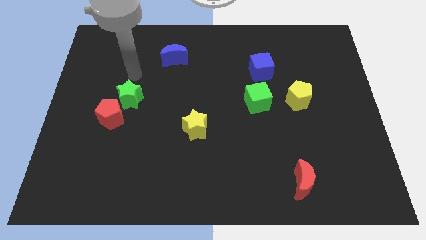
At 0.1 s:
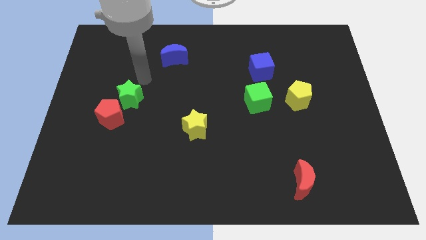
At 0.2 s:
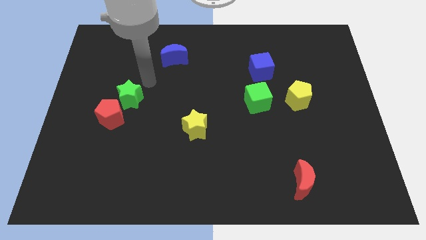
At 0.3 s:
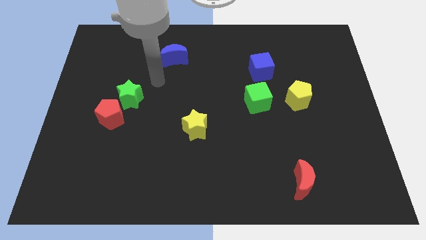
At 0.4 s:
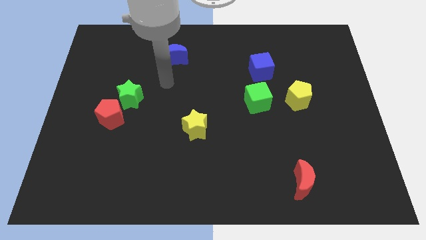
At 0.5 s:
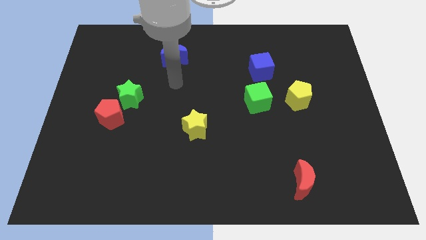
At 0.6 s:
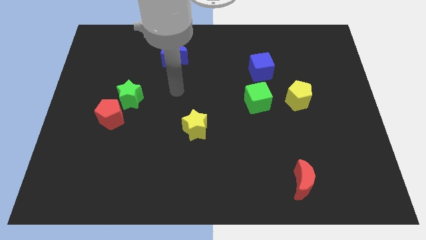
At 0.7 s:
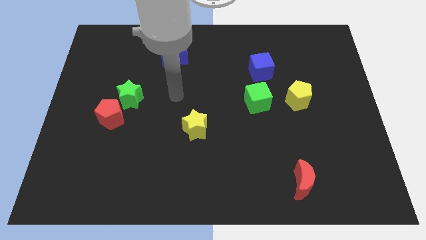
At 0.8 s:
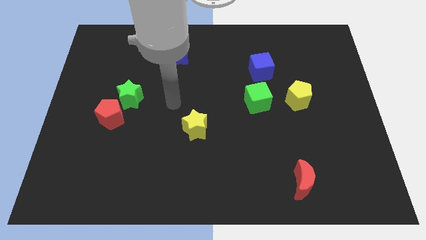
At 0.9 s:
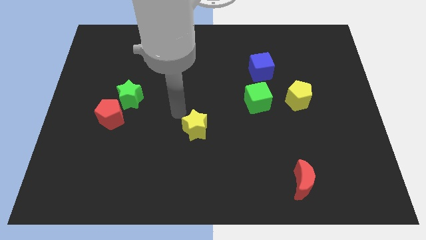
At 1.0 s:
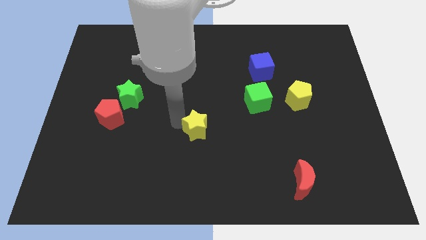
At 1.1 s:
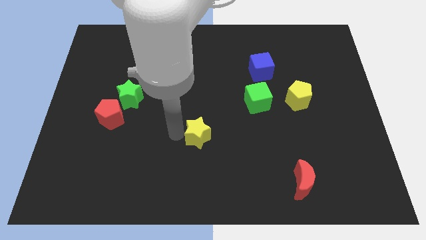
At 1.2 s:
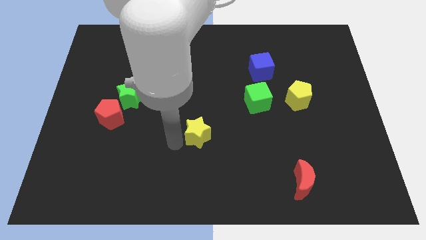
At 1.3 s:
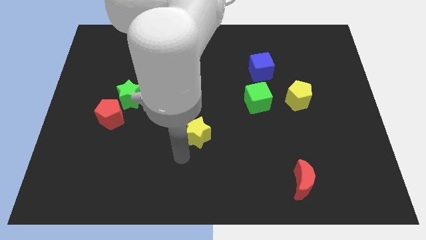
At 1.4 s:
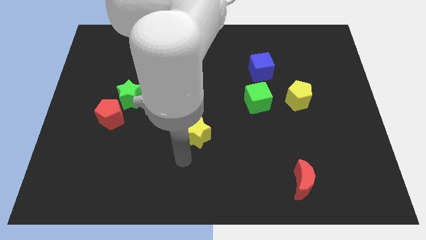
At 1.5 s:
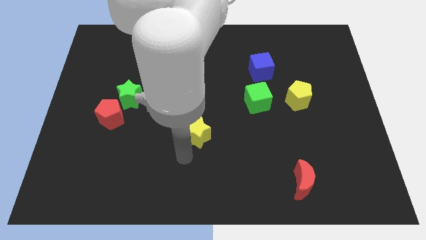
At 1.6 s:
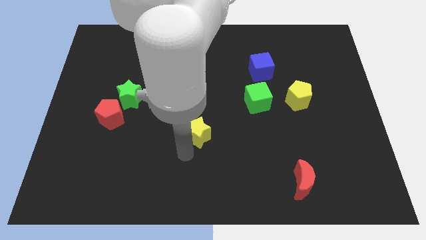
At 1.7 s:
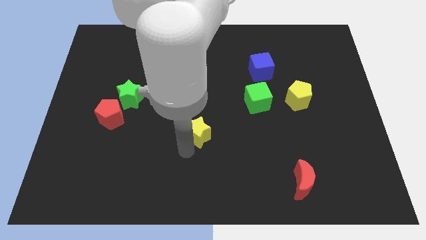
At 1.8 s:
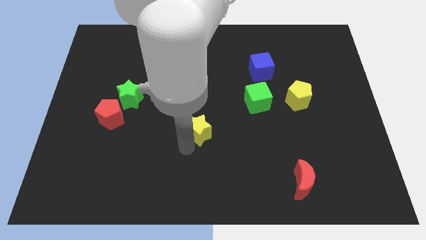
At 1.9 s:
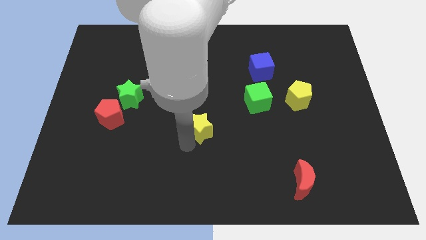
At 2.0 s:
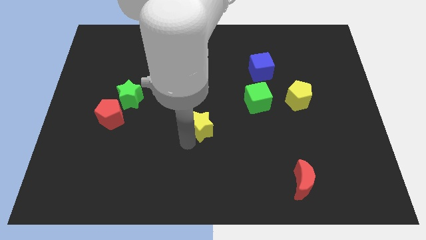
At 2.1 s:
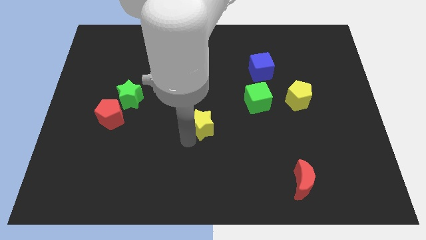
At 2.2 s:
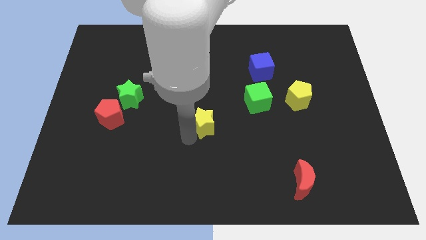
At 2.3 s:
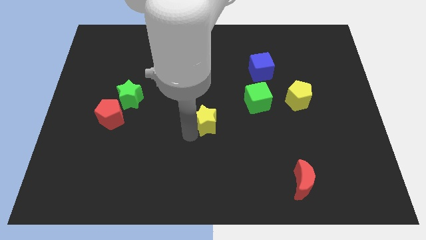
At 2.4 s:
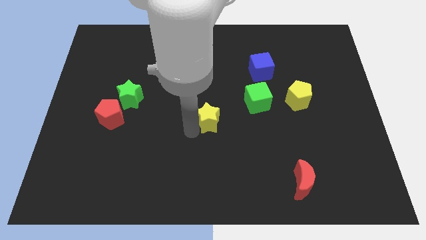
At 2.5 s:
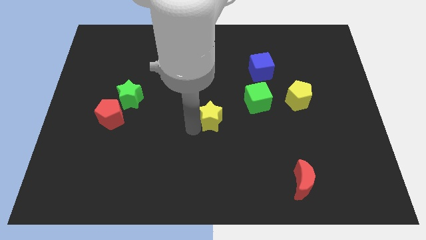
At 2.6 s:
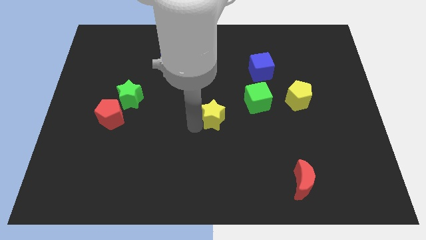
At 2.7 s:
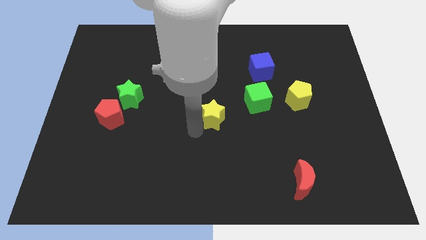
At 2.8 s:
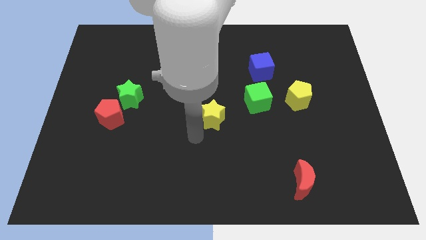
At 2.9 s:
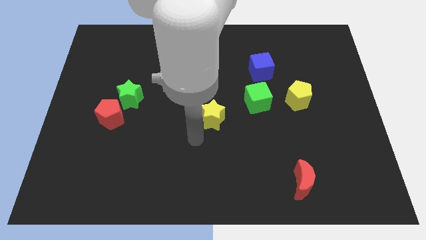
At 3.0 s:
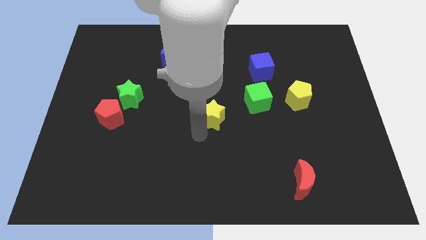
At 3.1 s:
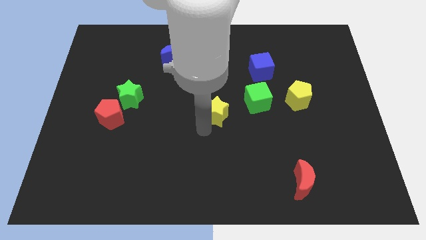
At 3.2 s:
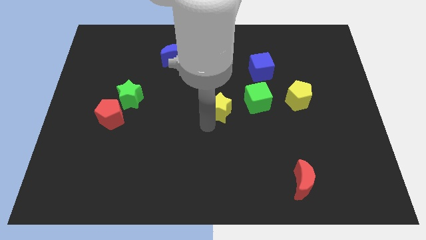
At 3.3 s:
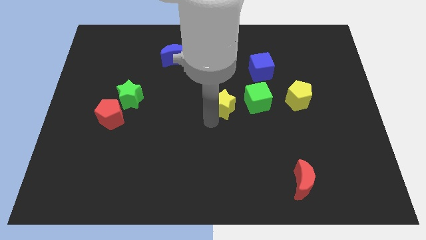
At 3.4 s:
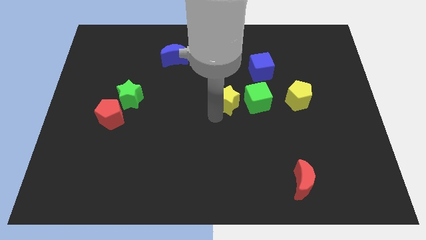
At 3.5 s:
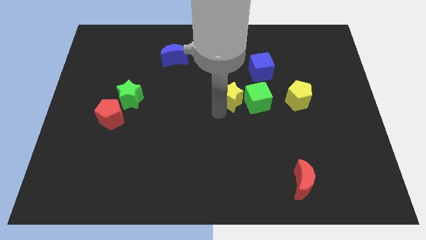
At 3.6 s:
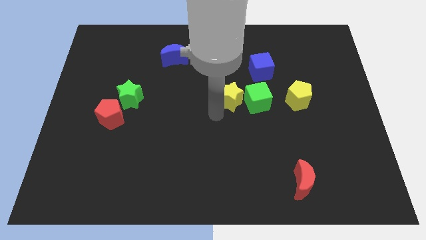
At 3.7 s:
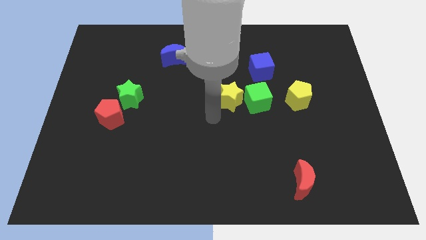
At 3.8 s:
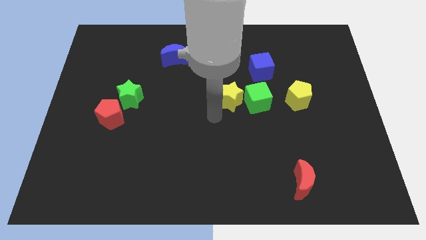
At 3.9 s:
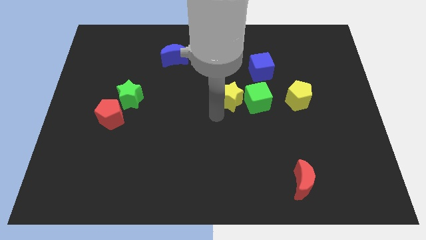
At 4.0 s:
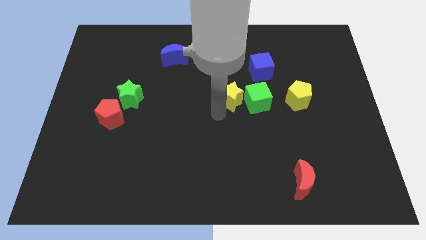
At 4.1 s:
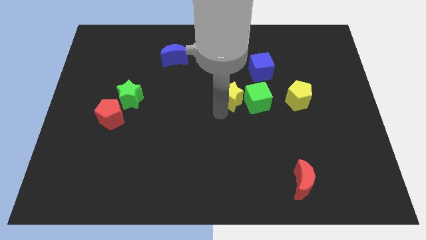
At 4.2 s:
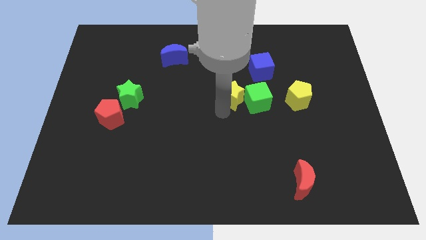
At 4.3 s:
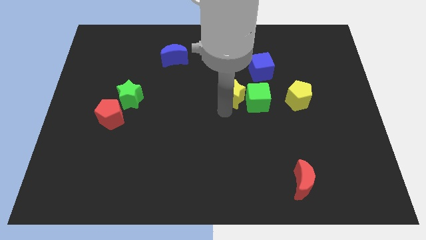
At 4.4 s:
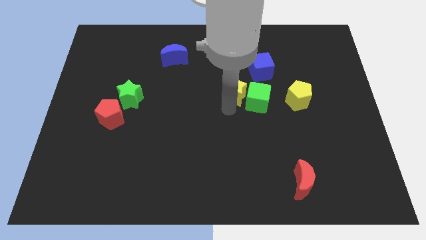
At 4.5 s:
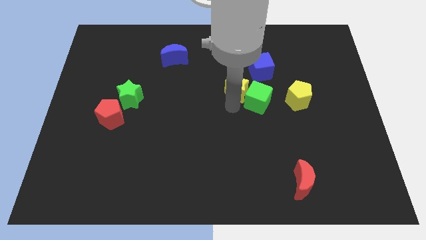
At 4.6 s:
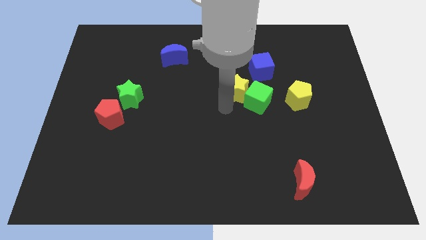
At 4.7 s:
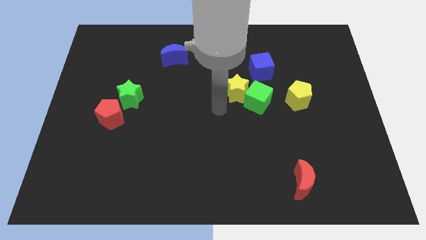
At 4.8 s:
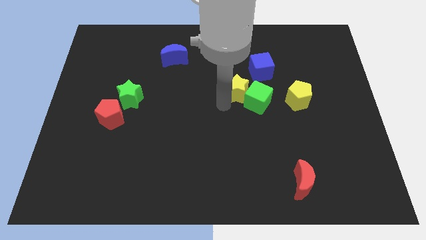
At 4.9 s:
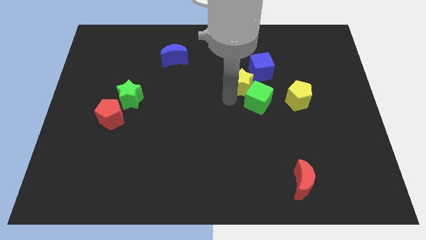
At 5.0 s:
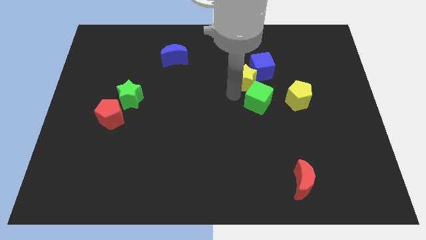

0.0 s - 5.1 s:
move the yellow star next to the blue cube

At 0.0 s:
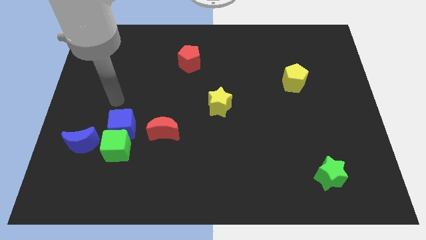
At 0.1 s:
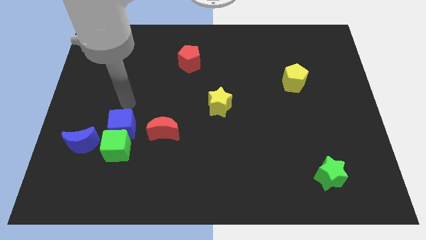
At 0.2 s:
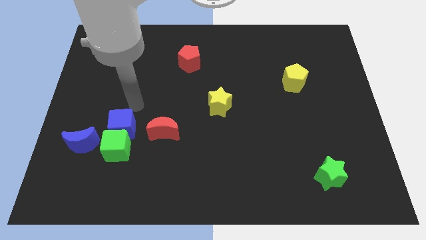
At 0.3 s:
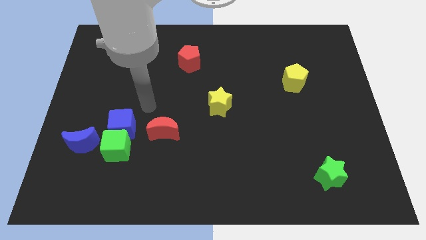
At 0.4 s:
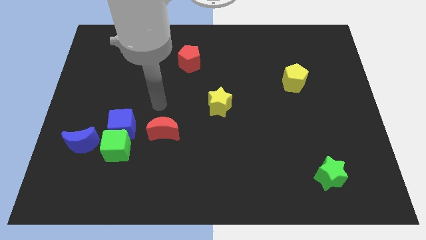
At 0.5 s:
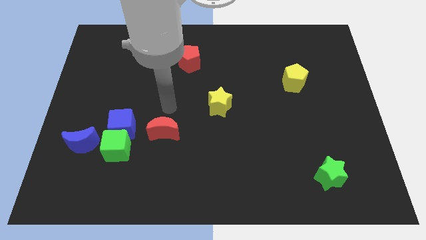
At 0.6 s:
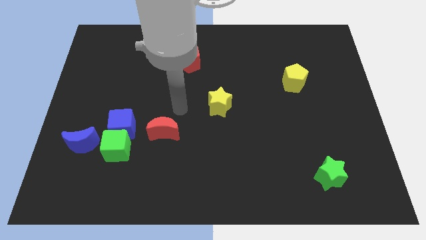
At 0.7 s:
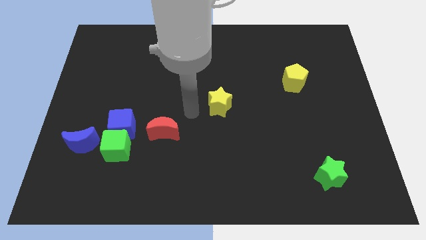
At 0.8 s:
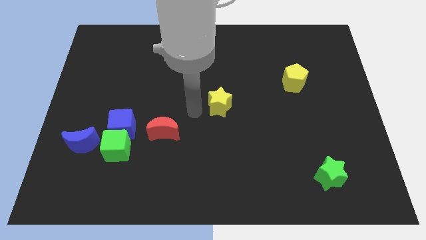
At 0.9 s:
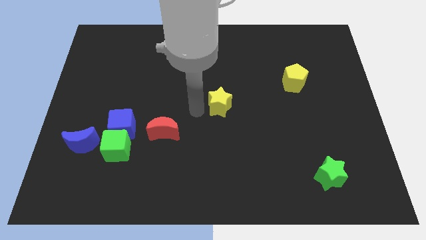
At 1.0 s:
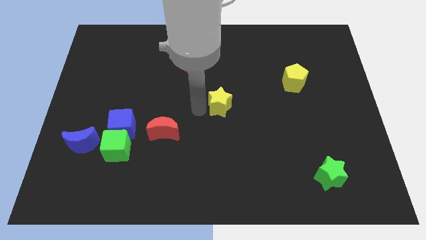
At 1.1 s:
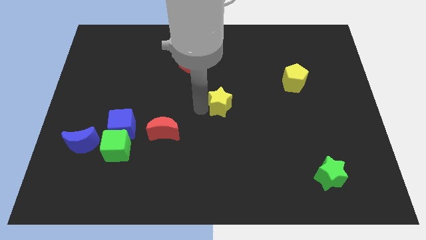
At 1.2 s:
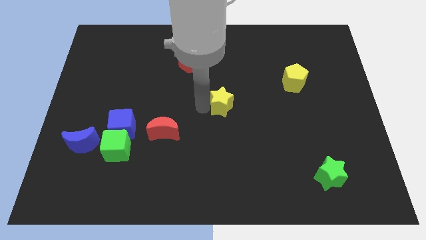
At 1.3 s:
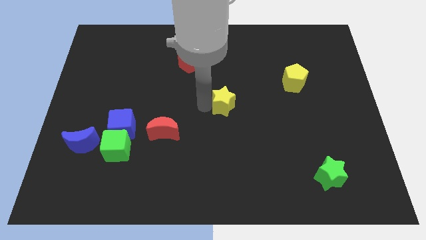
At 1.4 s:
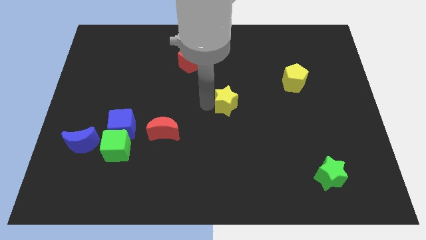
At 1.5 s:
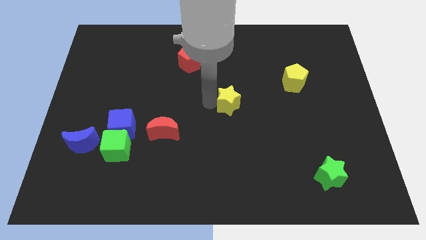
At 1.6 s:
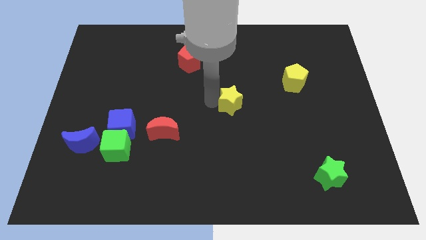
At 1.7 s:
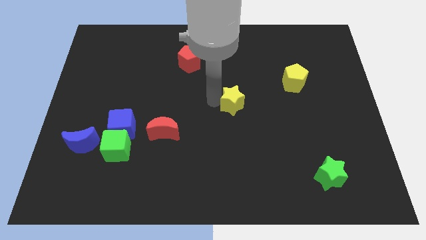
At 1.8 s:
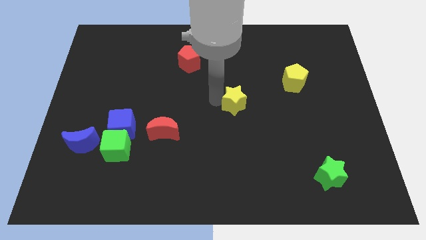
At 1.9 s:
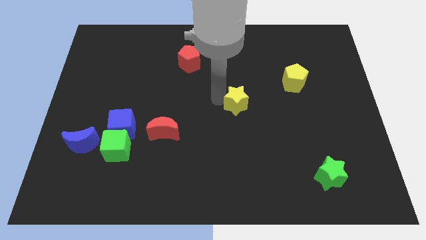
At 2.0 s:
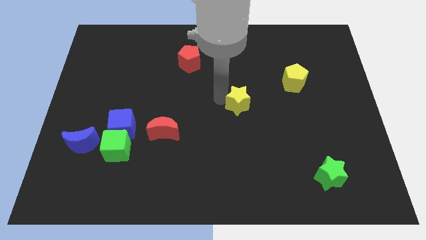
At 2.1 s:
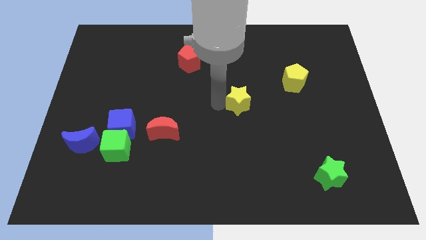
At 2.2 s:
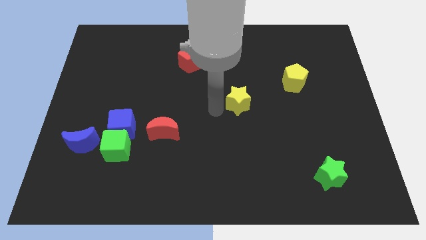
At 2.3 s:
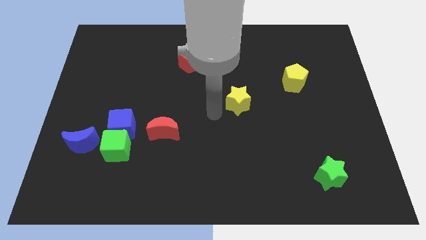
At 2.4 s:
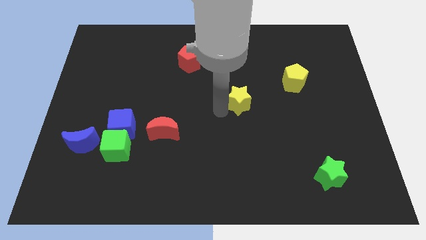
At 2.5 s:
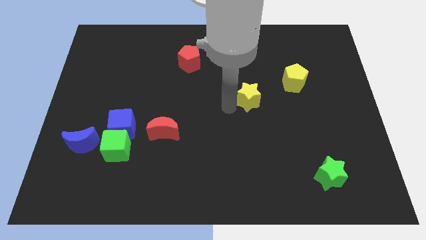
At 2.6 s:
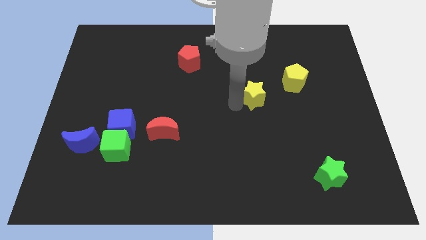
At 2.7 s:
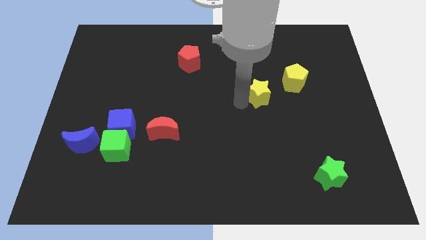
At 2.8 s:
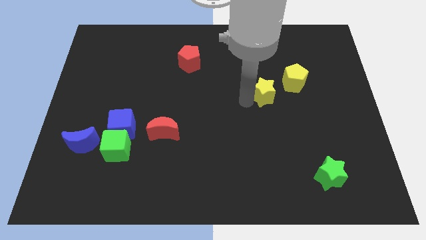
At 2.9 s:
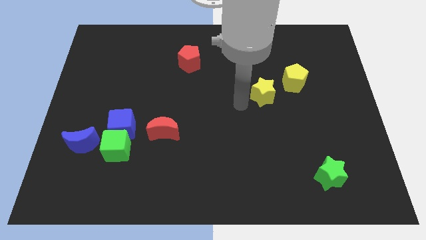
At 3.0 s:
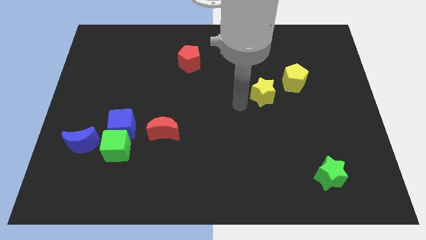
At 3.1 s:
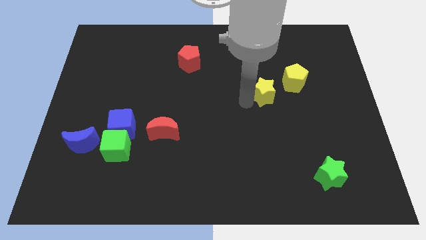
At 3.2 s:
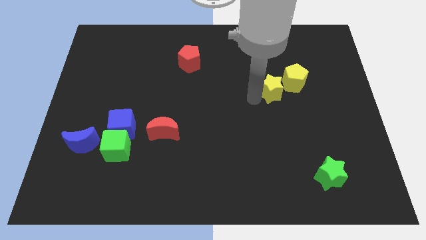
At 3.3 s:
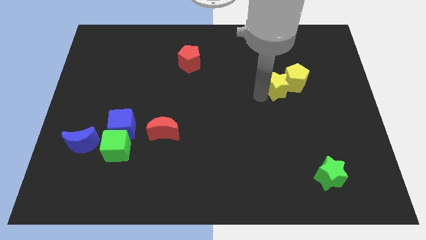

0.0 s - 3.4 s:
push the yellow star next to the yellow pentagon
